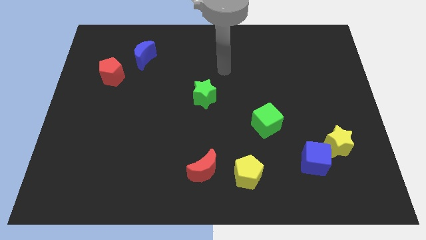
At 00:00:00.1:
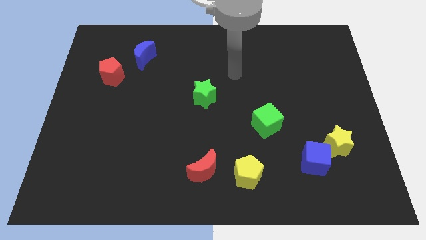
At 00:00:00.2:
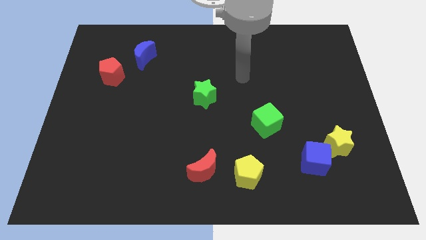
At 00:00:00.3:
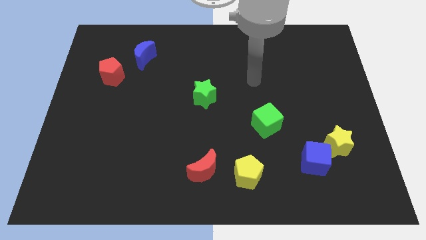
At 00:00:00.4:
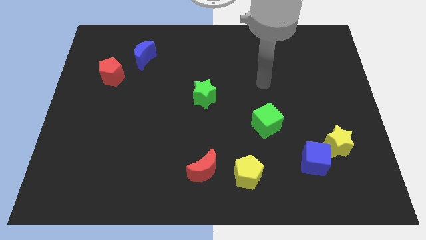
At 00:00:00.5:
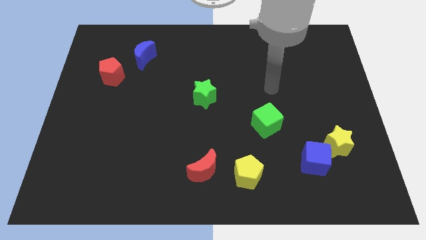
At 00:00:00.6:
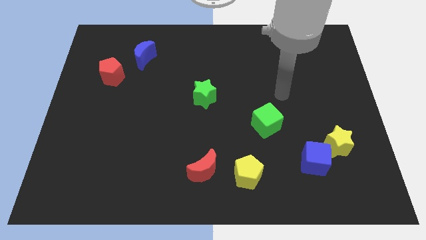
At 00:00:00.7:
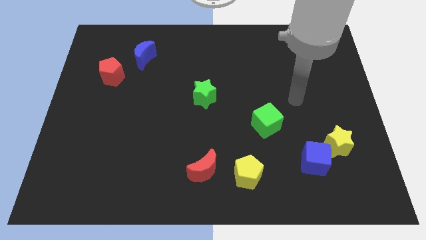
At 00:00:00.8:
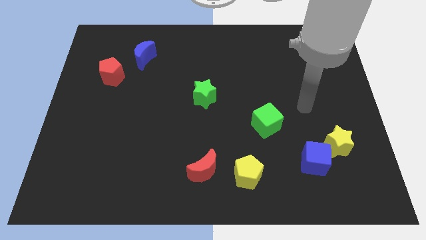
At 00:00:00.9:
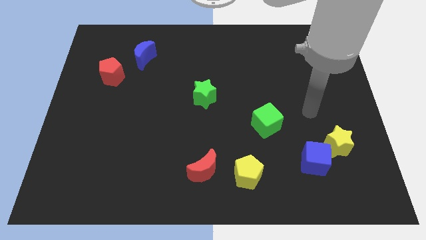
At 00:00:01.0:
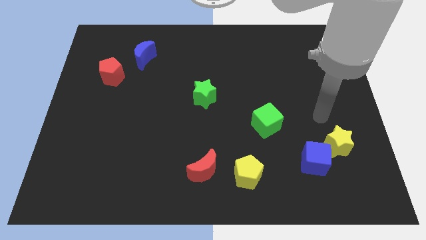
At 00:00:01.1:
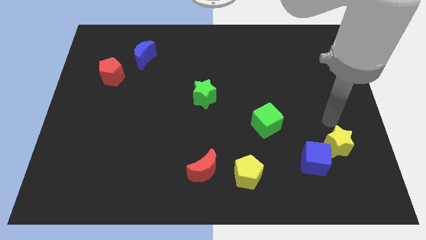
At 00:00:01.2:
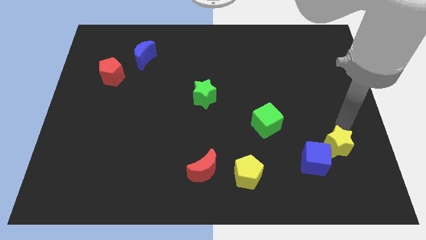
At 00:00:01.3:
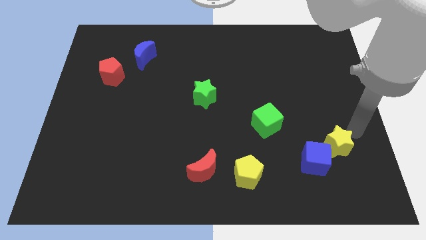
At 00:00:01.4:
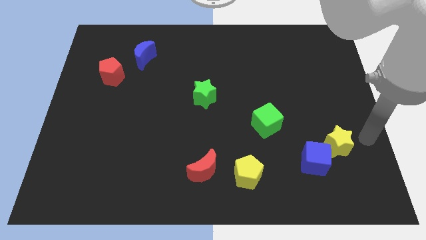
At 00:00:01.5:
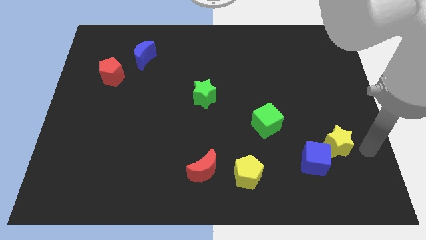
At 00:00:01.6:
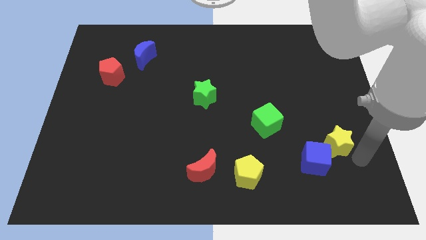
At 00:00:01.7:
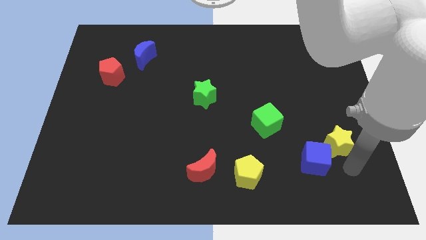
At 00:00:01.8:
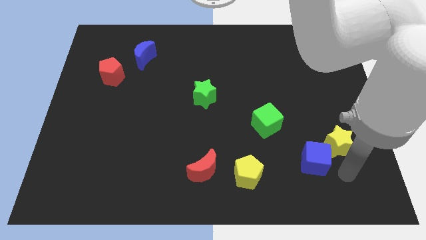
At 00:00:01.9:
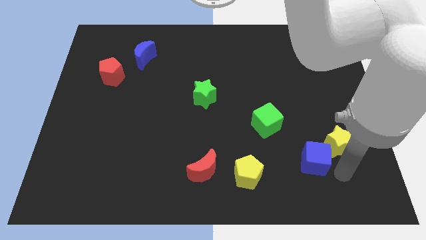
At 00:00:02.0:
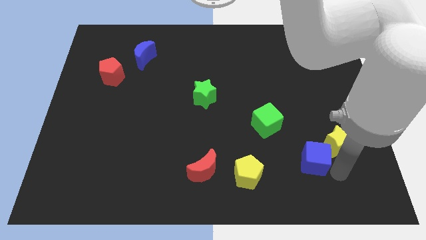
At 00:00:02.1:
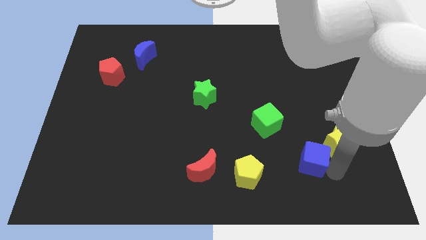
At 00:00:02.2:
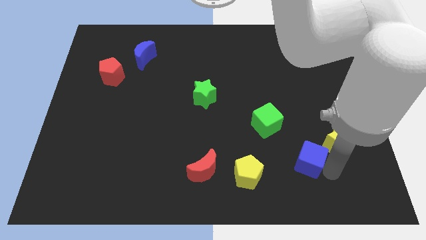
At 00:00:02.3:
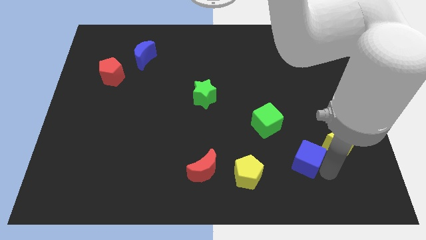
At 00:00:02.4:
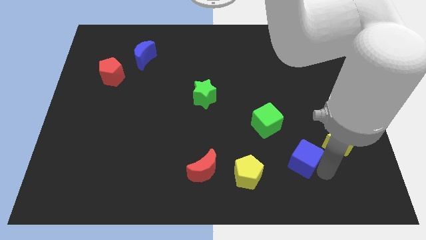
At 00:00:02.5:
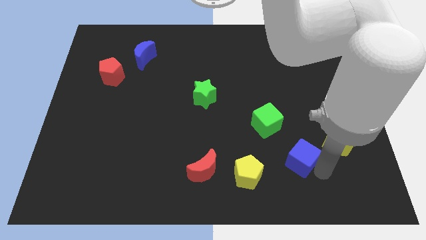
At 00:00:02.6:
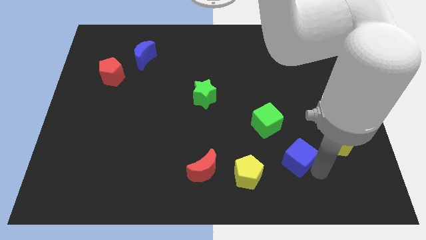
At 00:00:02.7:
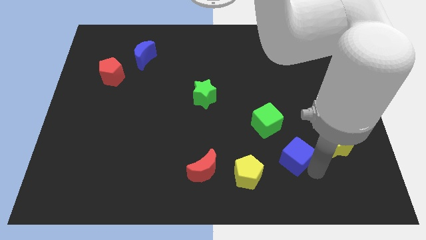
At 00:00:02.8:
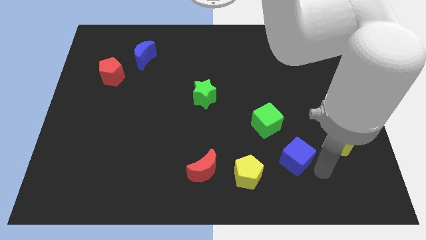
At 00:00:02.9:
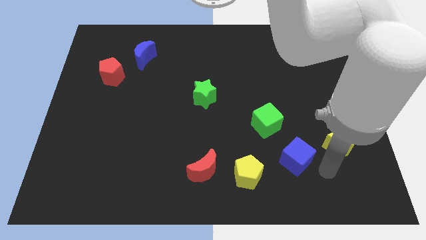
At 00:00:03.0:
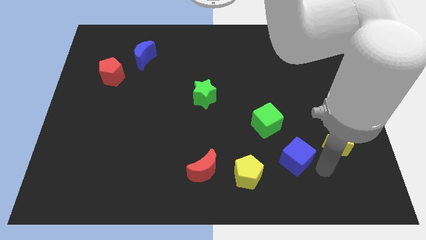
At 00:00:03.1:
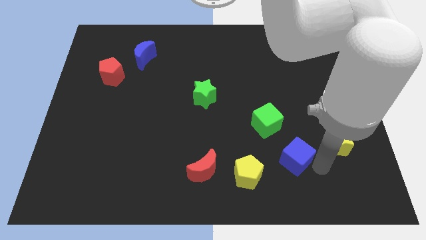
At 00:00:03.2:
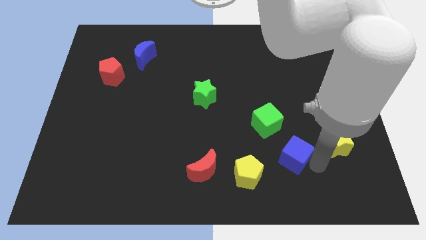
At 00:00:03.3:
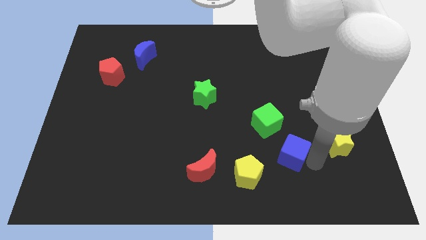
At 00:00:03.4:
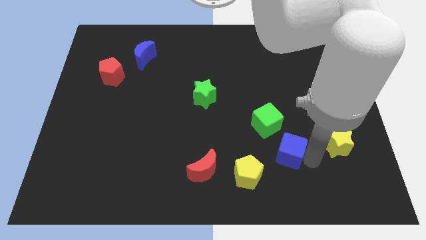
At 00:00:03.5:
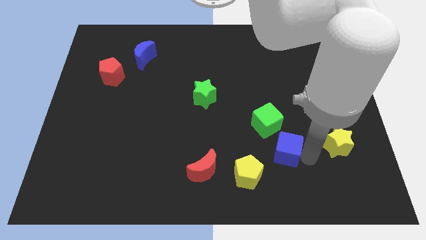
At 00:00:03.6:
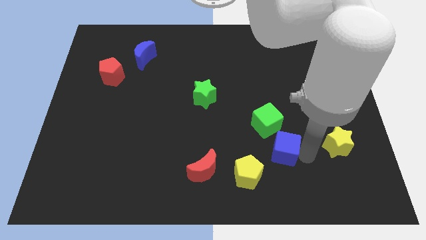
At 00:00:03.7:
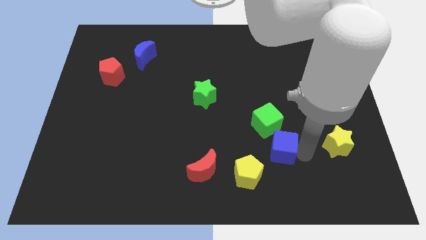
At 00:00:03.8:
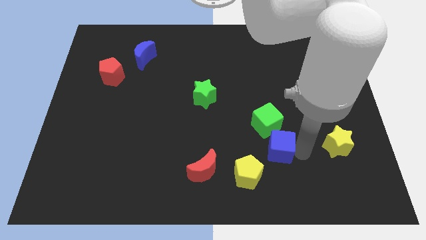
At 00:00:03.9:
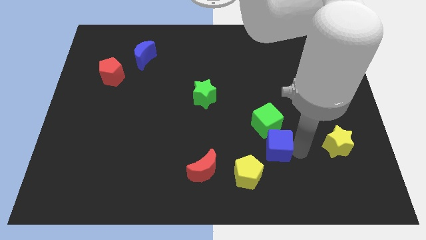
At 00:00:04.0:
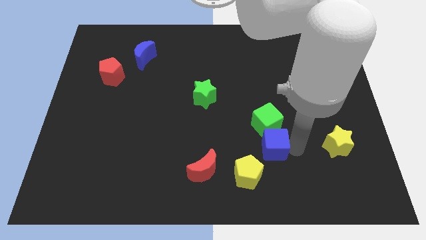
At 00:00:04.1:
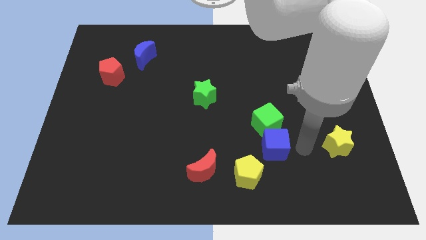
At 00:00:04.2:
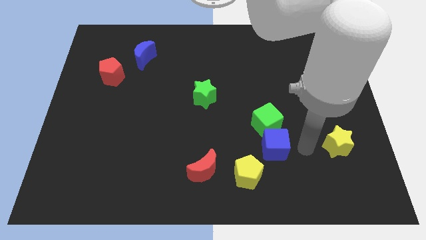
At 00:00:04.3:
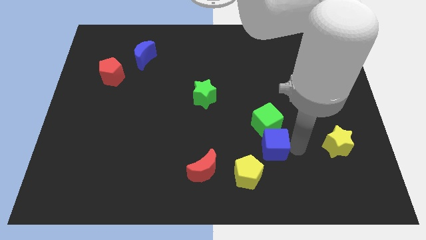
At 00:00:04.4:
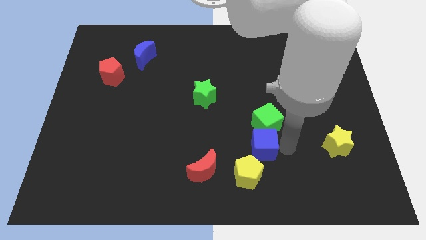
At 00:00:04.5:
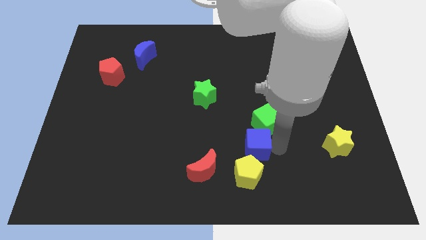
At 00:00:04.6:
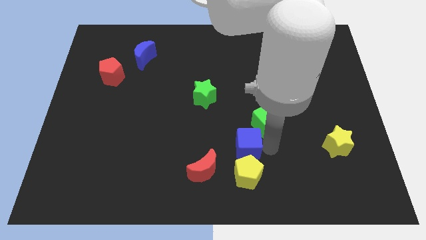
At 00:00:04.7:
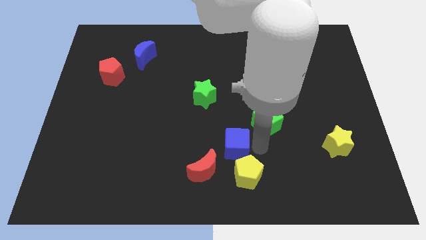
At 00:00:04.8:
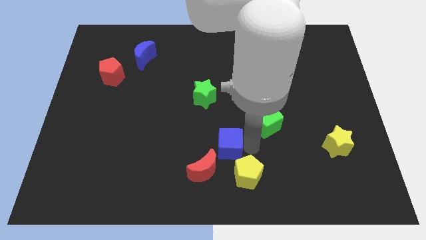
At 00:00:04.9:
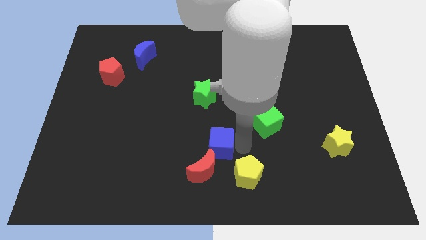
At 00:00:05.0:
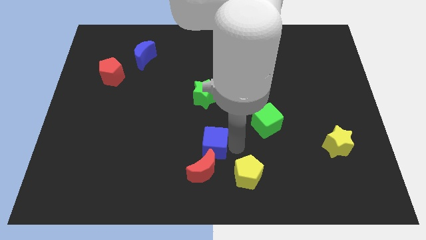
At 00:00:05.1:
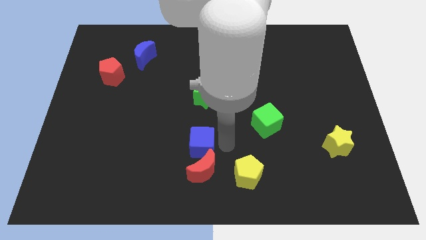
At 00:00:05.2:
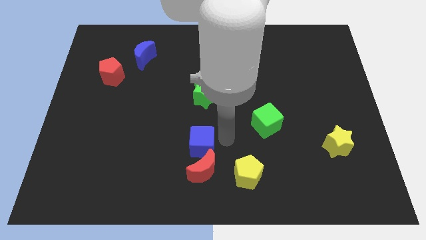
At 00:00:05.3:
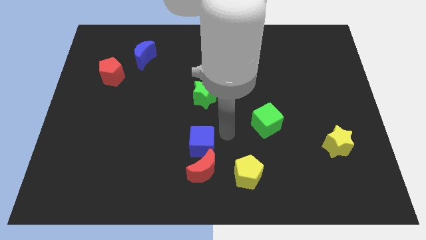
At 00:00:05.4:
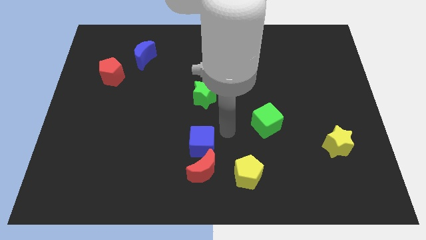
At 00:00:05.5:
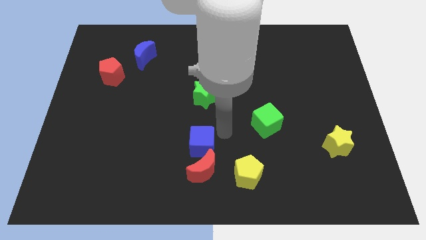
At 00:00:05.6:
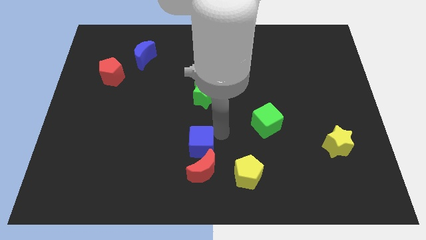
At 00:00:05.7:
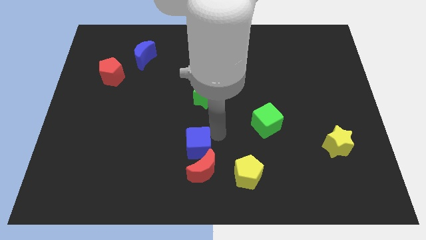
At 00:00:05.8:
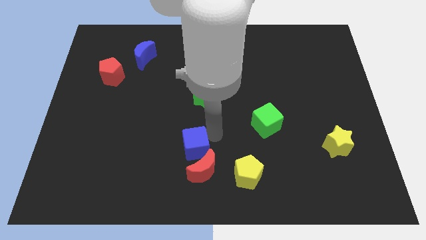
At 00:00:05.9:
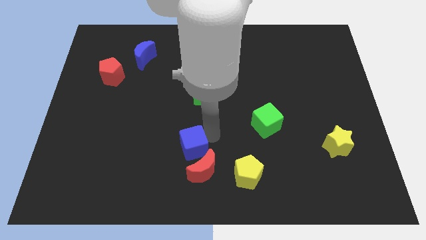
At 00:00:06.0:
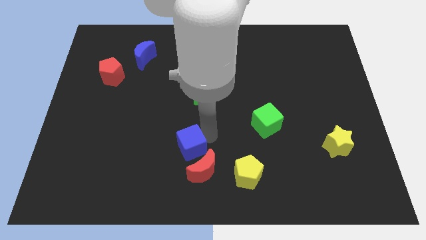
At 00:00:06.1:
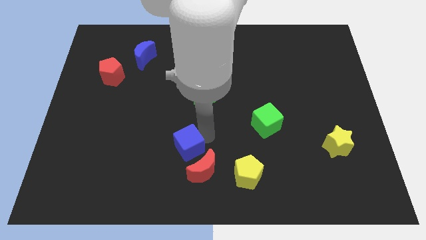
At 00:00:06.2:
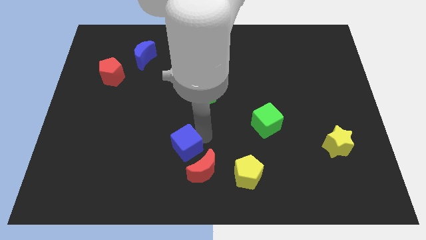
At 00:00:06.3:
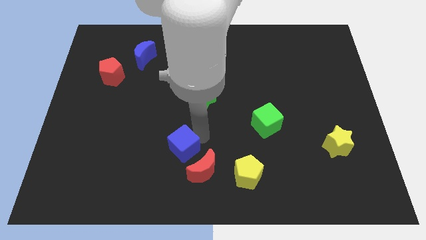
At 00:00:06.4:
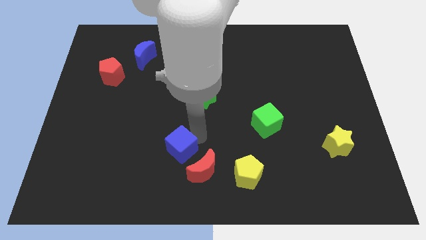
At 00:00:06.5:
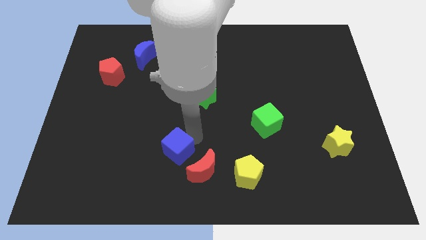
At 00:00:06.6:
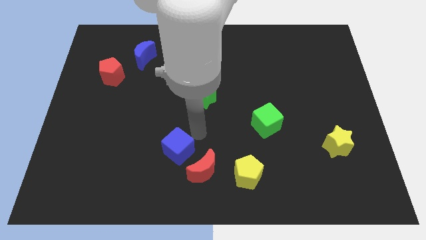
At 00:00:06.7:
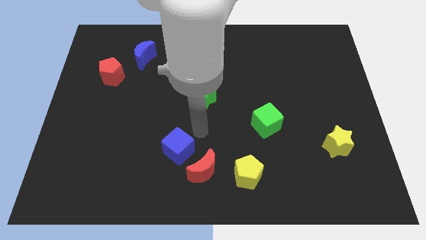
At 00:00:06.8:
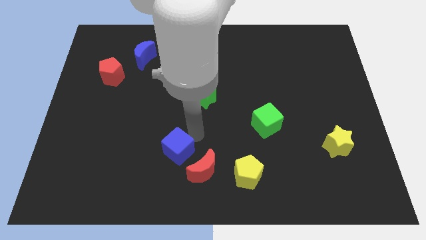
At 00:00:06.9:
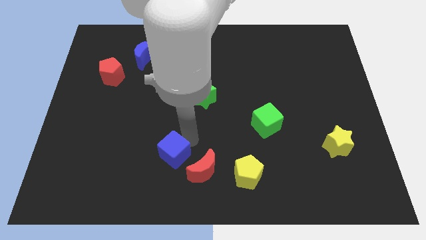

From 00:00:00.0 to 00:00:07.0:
push the blue cube left of the red moon
